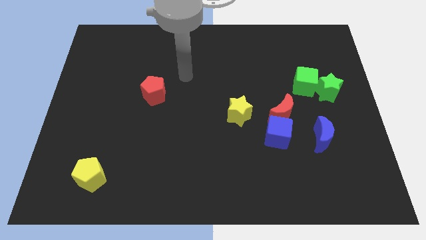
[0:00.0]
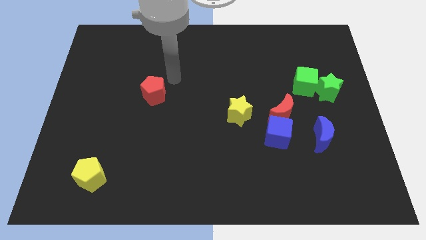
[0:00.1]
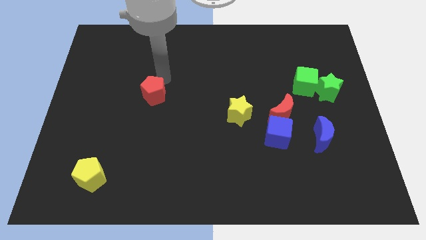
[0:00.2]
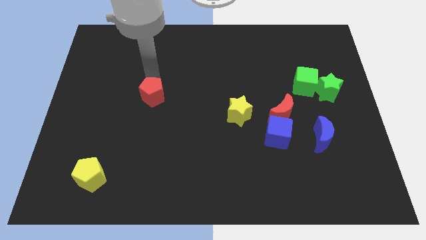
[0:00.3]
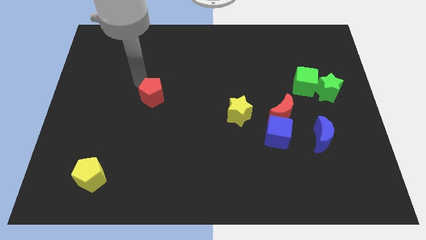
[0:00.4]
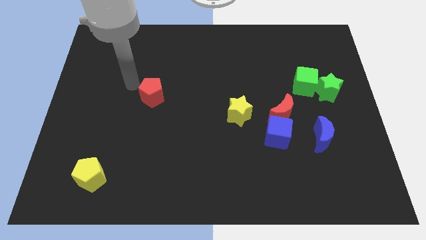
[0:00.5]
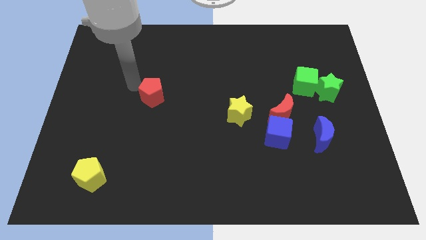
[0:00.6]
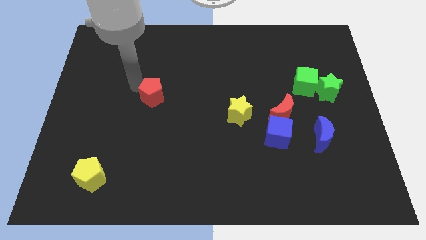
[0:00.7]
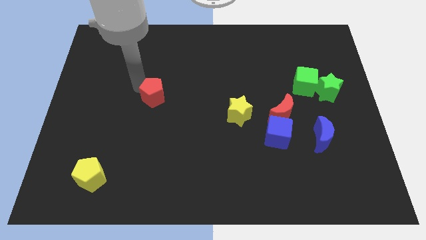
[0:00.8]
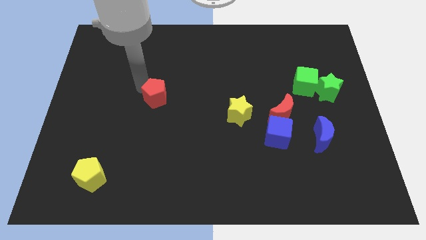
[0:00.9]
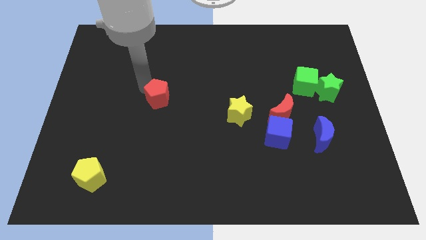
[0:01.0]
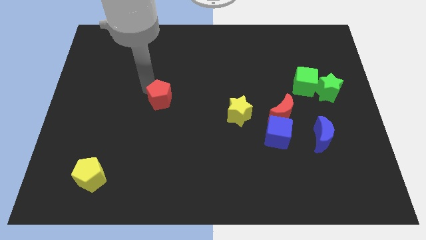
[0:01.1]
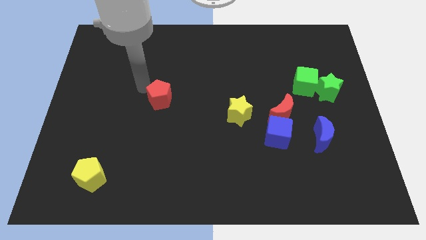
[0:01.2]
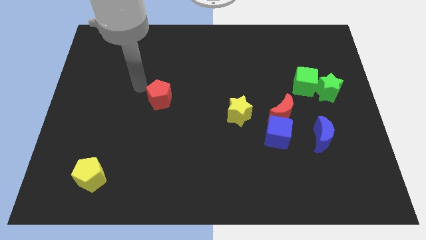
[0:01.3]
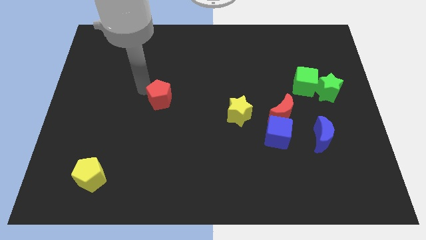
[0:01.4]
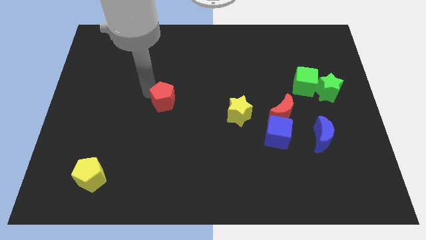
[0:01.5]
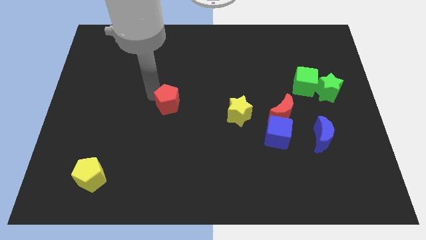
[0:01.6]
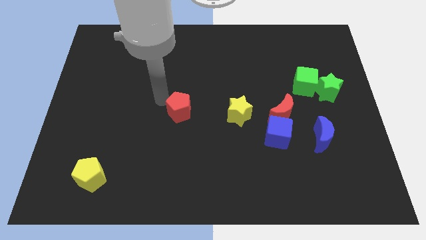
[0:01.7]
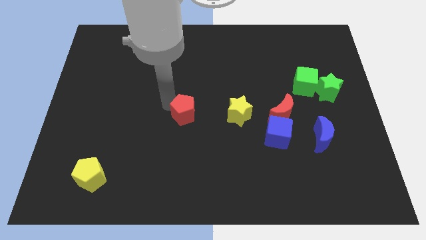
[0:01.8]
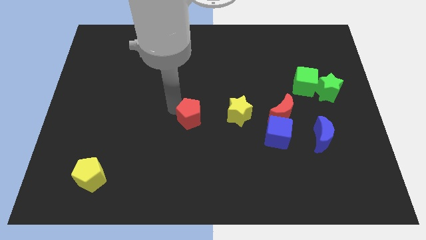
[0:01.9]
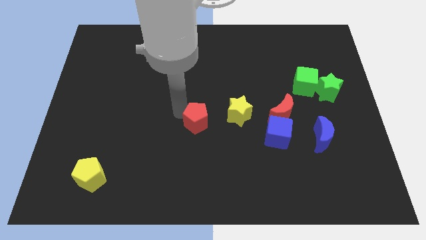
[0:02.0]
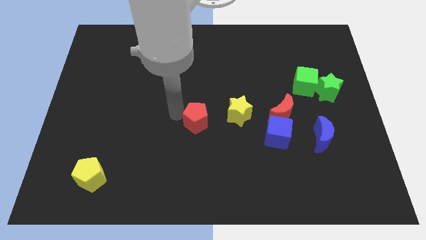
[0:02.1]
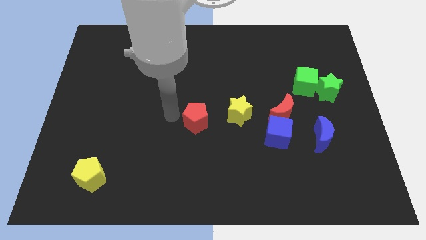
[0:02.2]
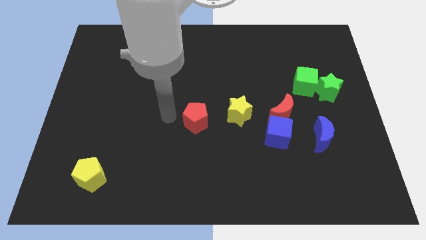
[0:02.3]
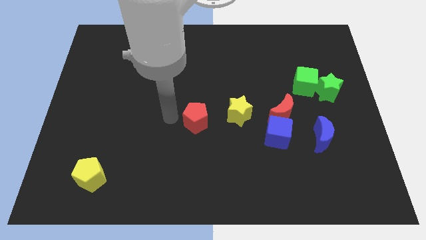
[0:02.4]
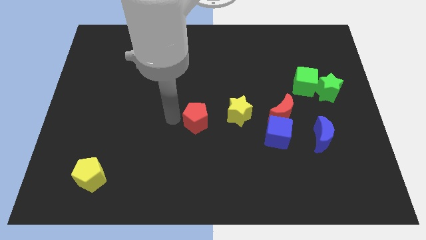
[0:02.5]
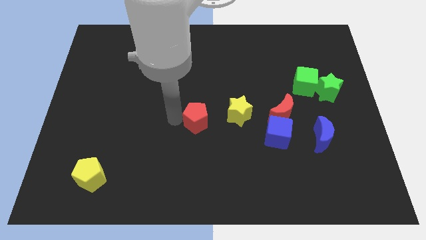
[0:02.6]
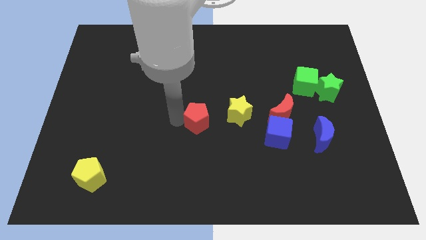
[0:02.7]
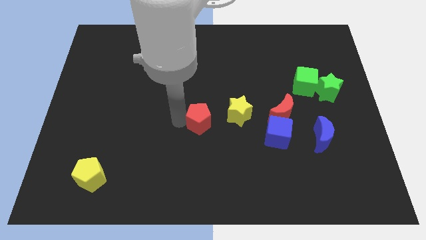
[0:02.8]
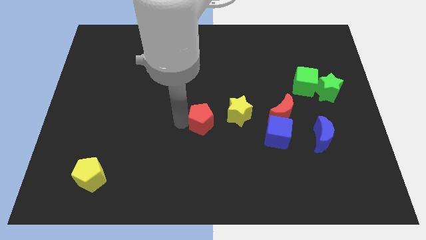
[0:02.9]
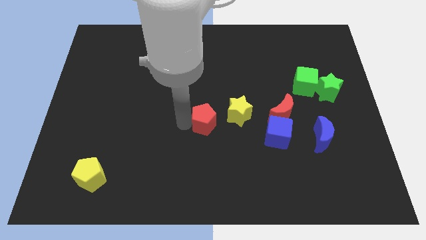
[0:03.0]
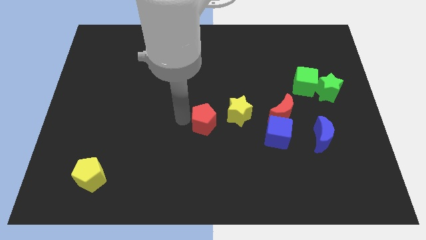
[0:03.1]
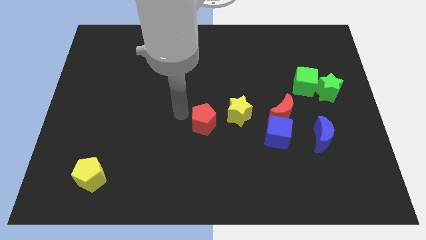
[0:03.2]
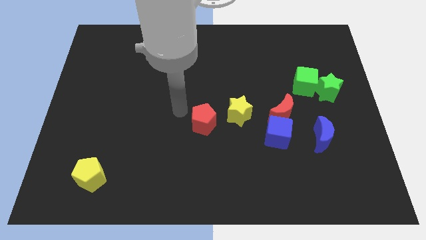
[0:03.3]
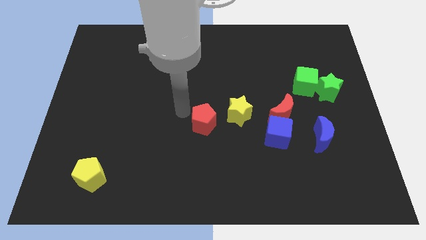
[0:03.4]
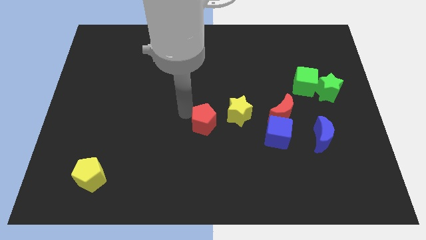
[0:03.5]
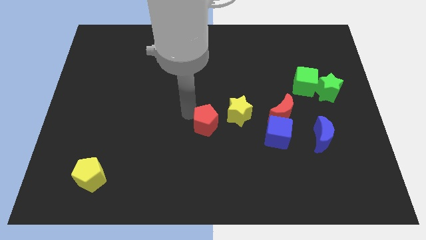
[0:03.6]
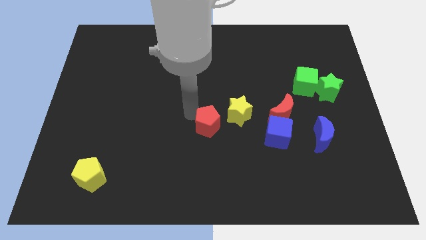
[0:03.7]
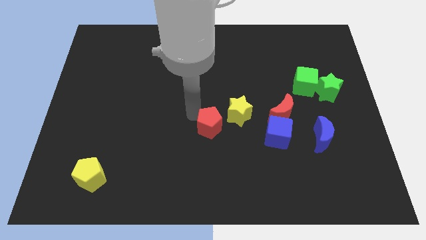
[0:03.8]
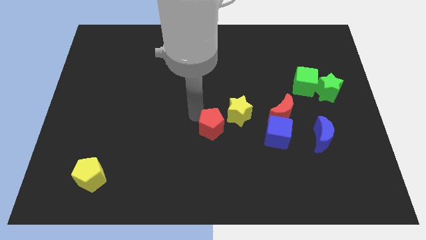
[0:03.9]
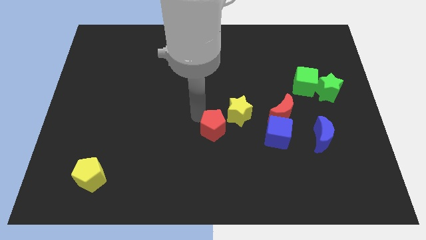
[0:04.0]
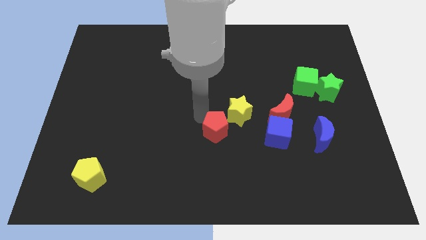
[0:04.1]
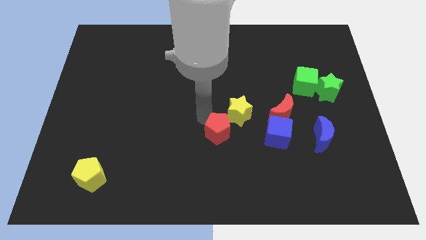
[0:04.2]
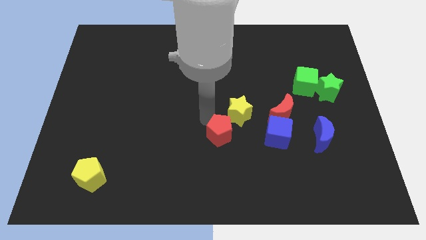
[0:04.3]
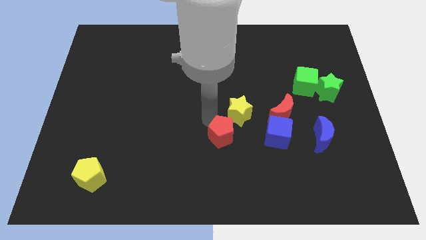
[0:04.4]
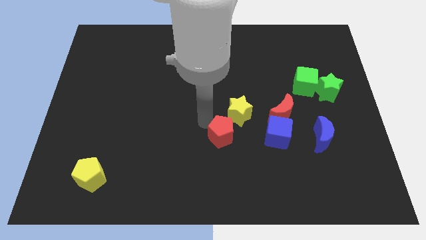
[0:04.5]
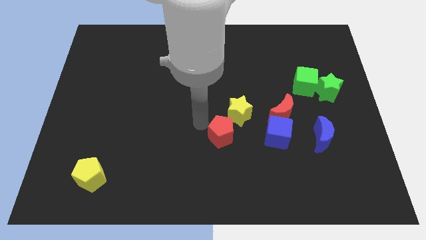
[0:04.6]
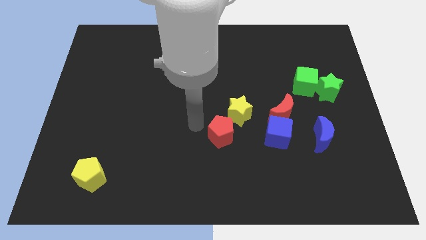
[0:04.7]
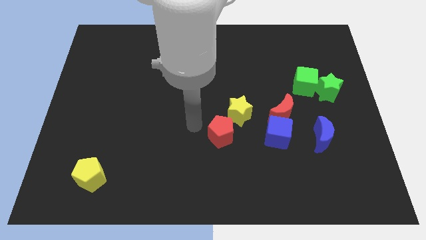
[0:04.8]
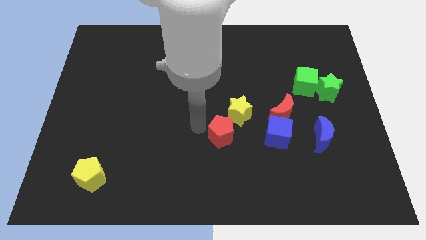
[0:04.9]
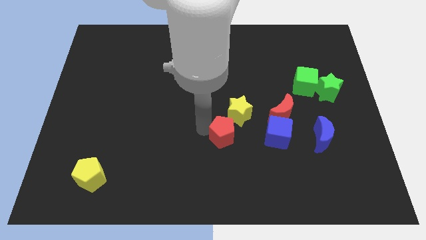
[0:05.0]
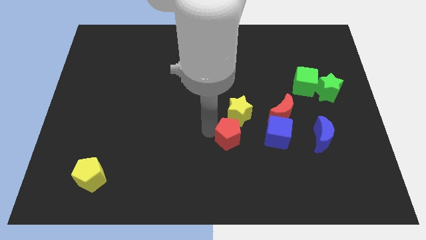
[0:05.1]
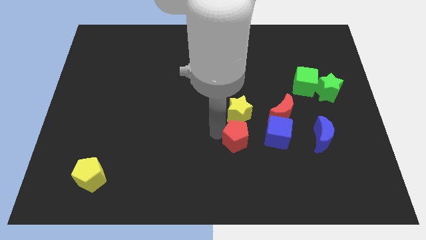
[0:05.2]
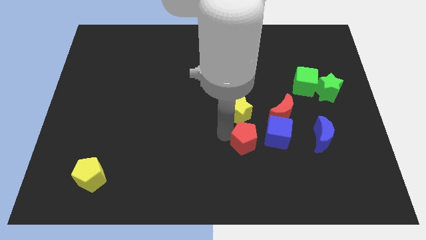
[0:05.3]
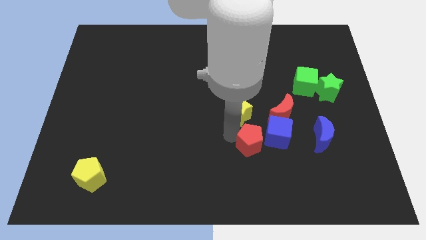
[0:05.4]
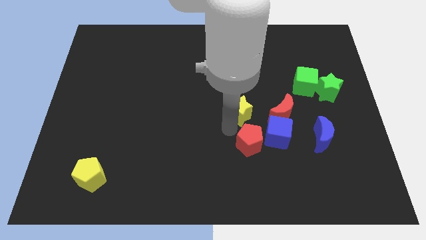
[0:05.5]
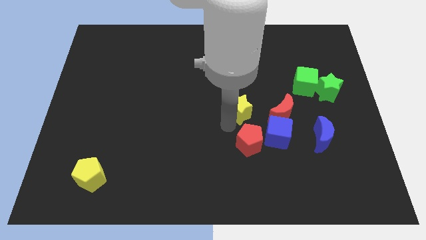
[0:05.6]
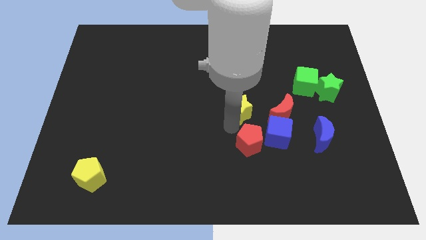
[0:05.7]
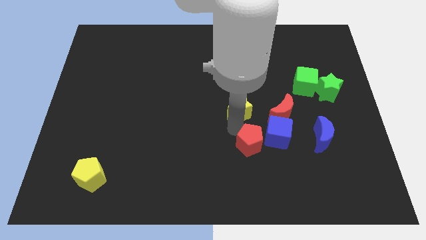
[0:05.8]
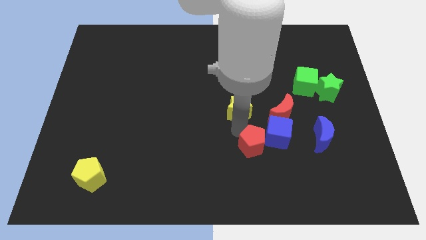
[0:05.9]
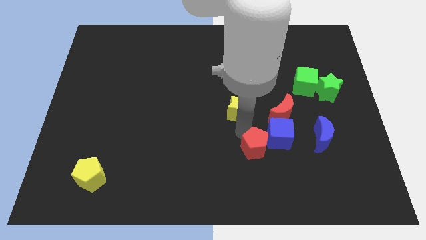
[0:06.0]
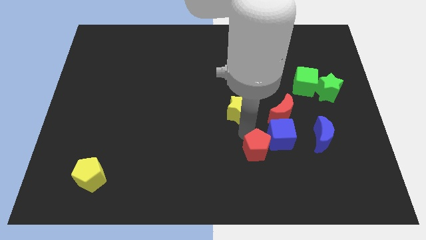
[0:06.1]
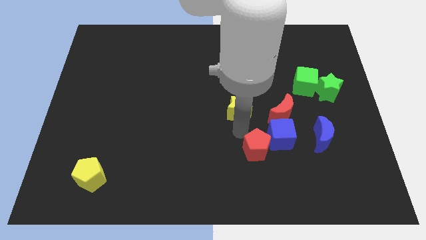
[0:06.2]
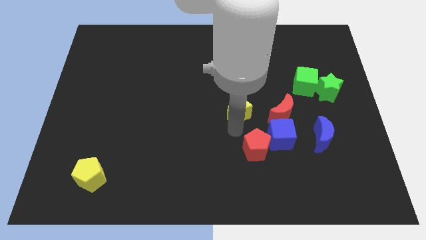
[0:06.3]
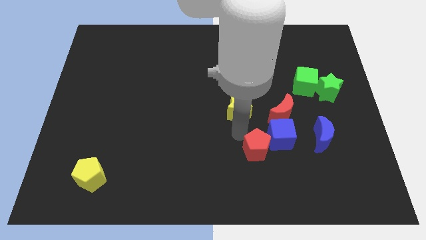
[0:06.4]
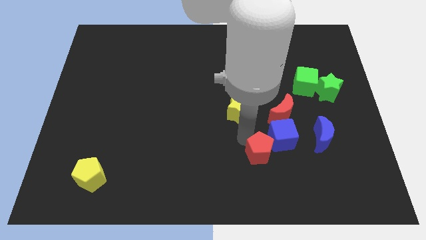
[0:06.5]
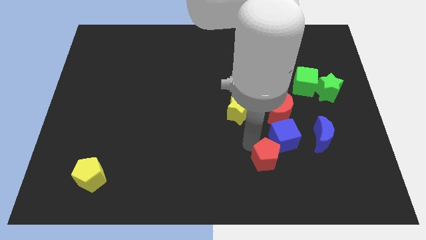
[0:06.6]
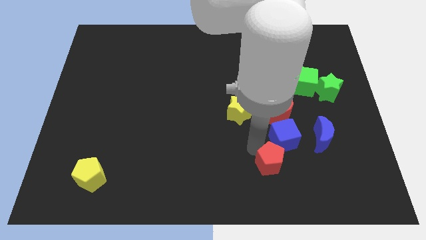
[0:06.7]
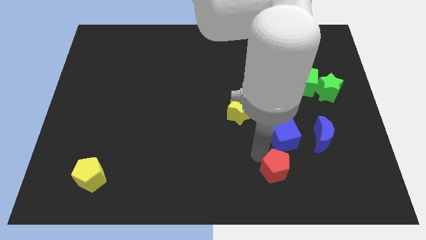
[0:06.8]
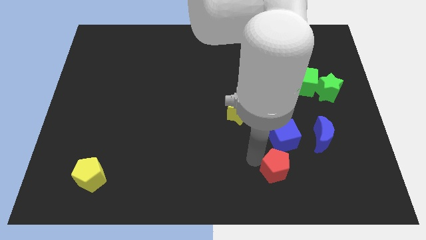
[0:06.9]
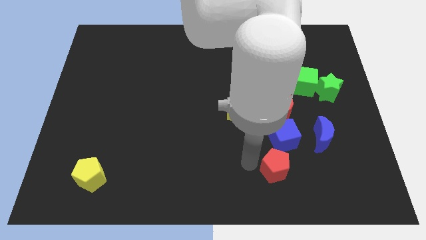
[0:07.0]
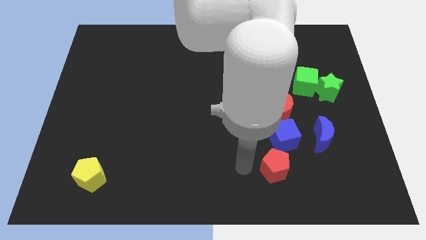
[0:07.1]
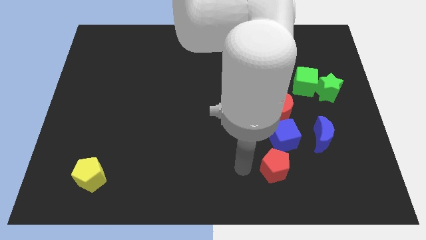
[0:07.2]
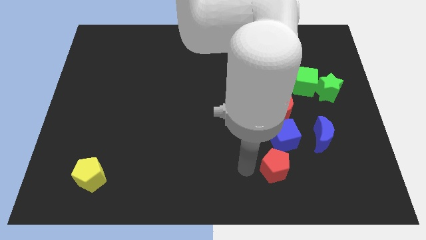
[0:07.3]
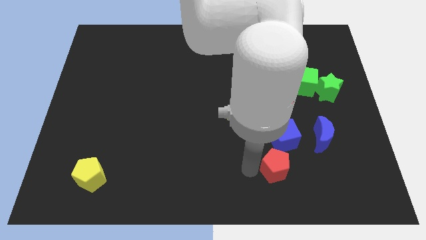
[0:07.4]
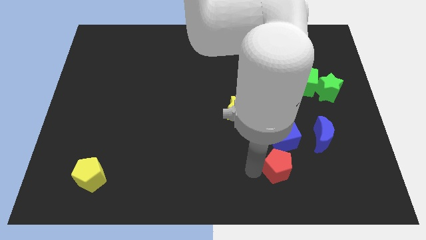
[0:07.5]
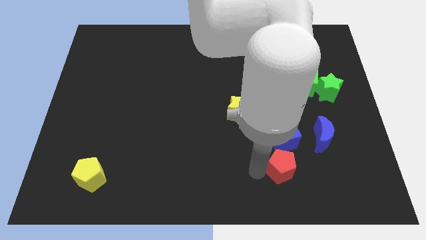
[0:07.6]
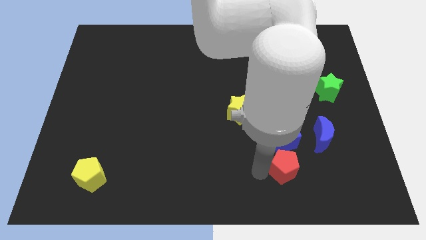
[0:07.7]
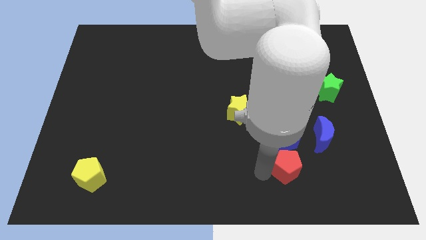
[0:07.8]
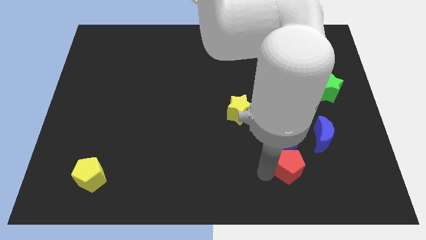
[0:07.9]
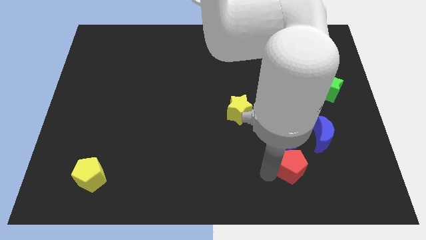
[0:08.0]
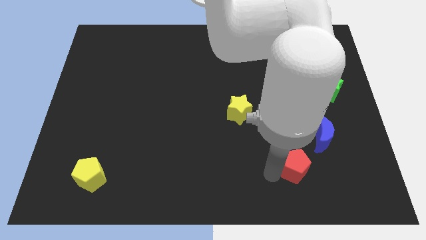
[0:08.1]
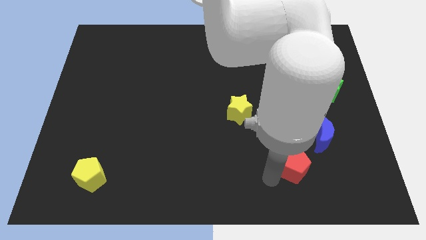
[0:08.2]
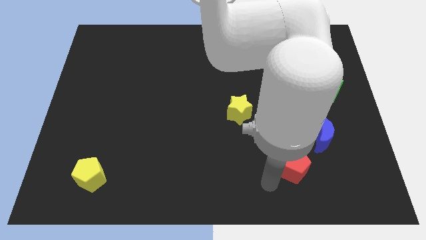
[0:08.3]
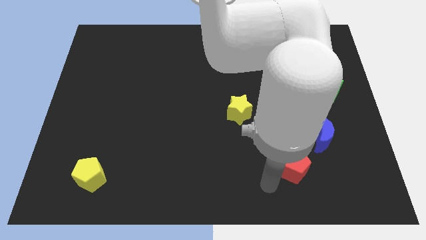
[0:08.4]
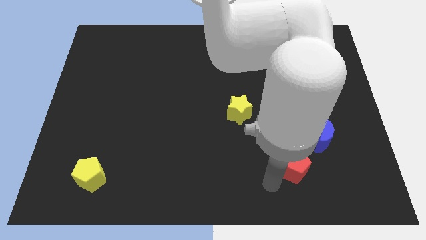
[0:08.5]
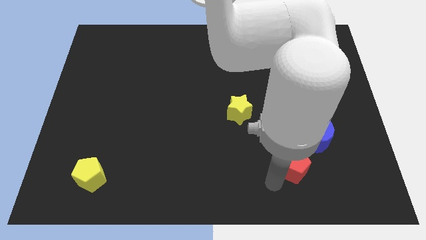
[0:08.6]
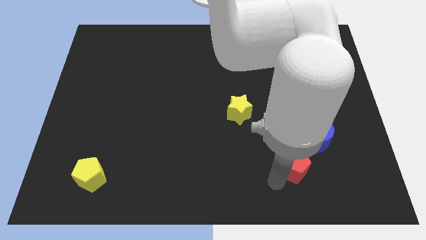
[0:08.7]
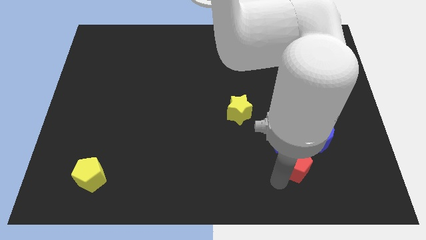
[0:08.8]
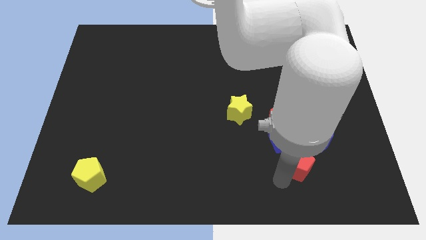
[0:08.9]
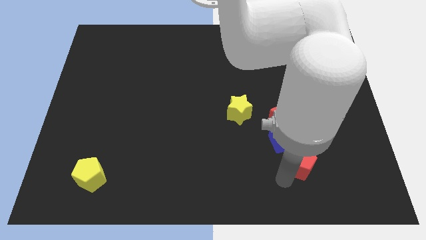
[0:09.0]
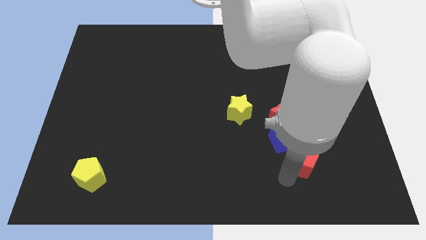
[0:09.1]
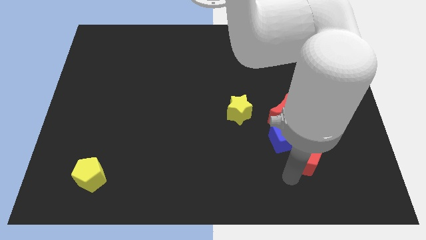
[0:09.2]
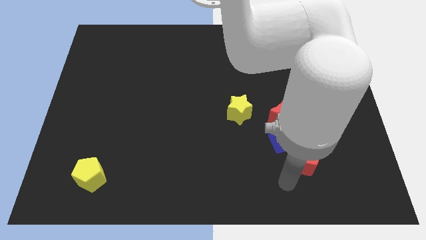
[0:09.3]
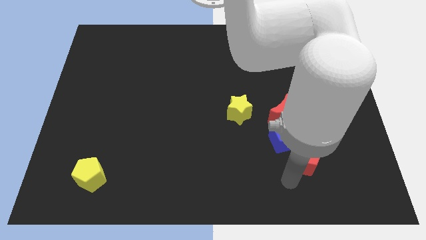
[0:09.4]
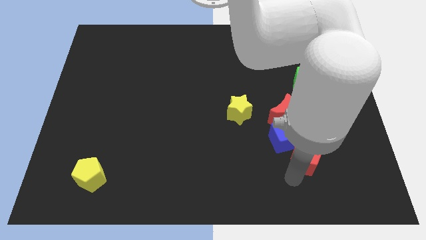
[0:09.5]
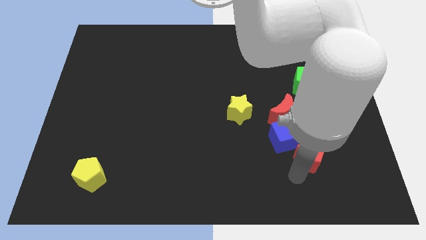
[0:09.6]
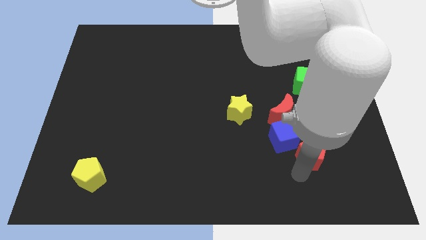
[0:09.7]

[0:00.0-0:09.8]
push the red pentagon to the blue moon
